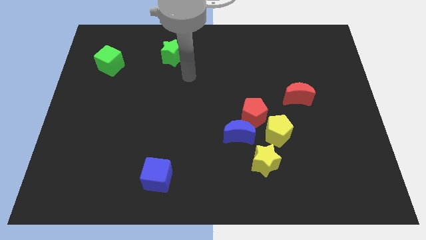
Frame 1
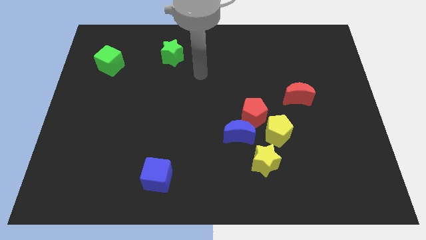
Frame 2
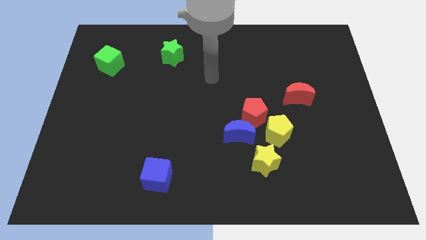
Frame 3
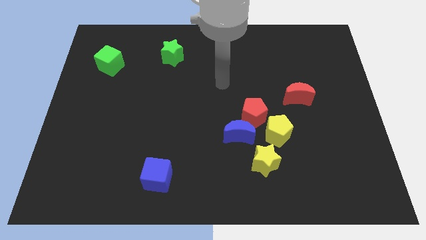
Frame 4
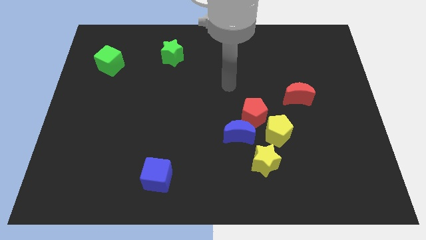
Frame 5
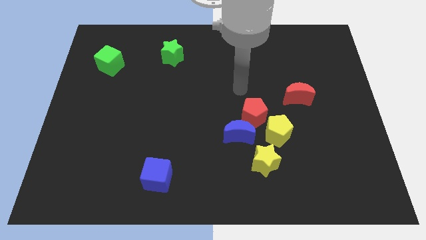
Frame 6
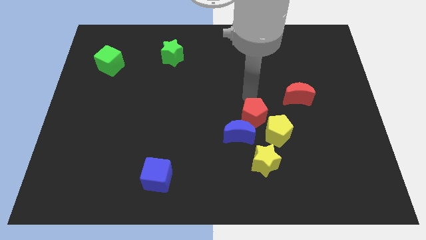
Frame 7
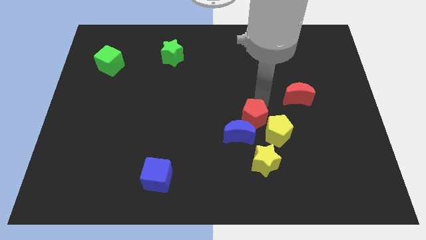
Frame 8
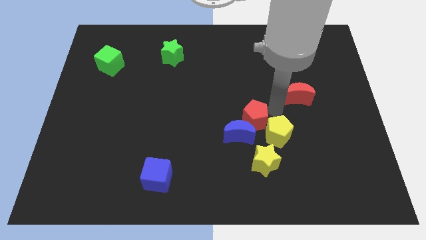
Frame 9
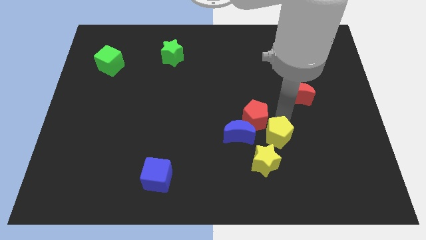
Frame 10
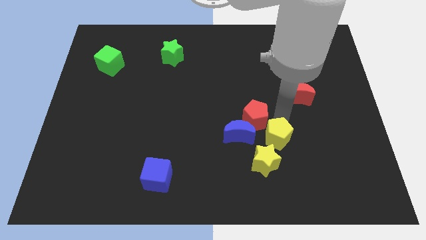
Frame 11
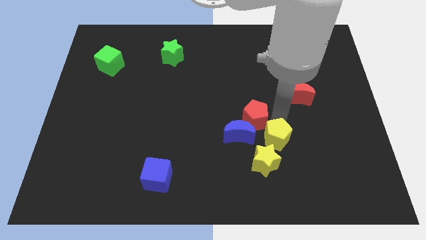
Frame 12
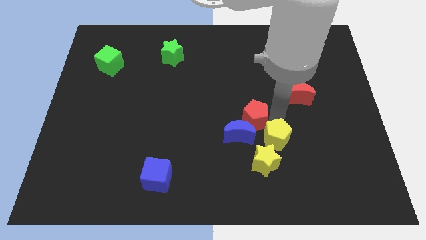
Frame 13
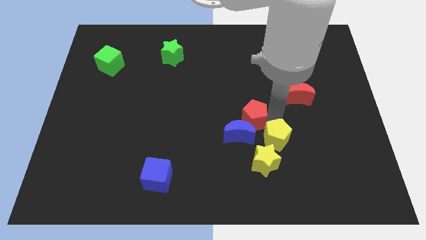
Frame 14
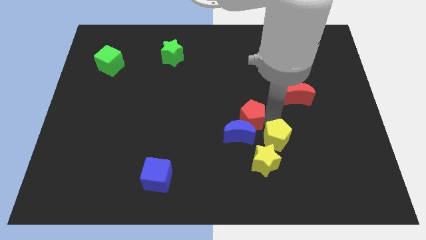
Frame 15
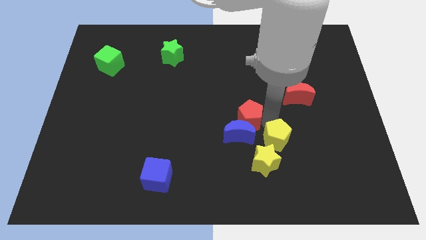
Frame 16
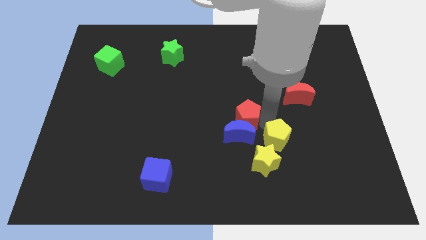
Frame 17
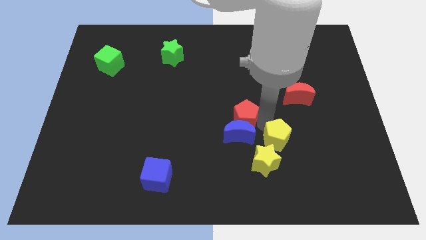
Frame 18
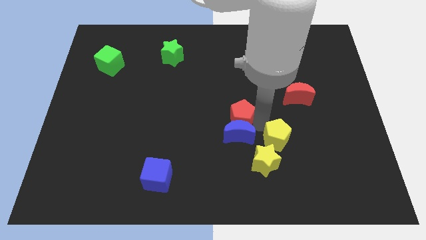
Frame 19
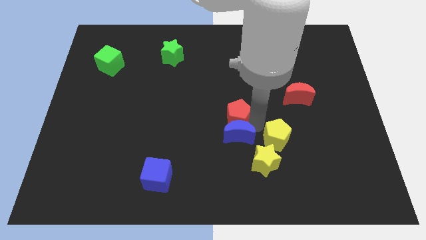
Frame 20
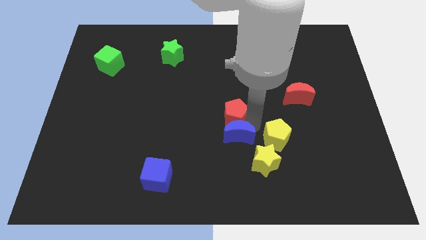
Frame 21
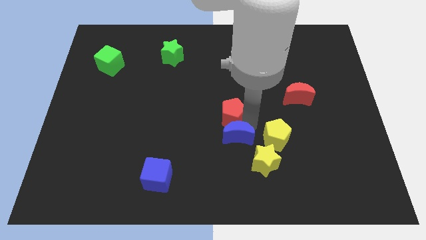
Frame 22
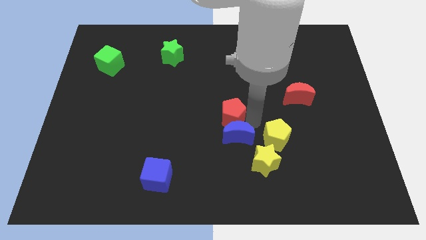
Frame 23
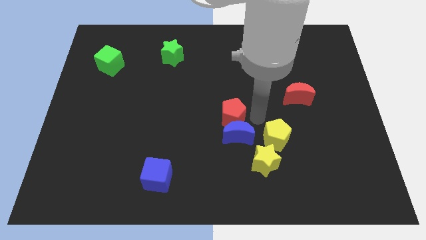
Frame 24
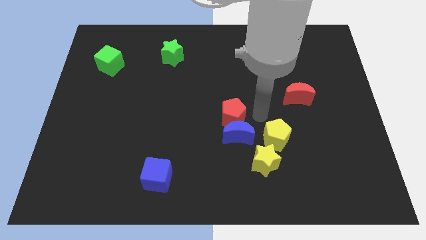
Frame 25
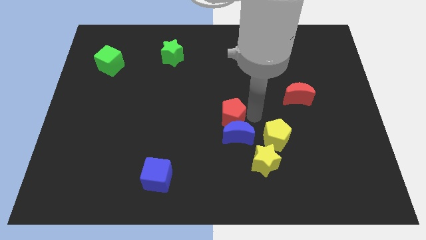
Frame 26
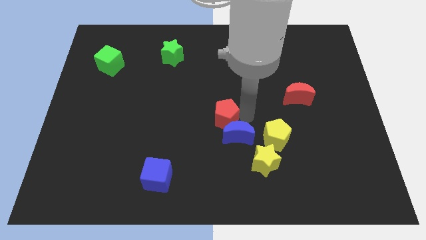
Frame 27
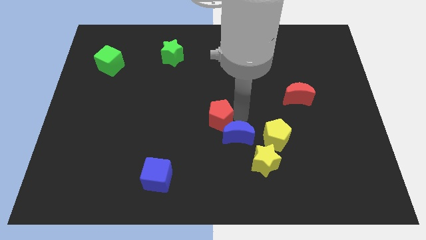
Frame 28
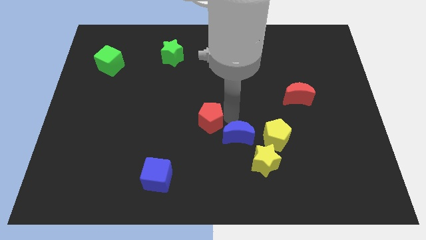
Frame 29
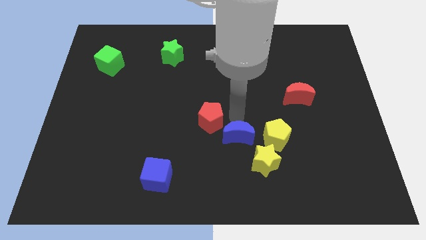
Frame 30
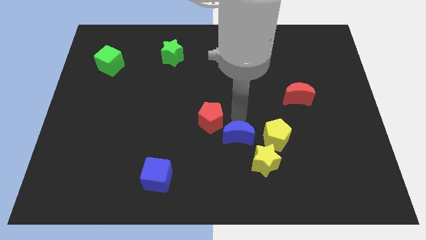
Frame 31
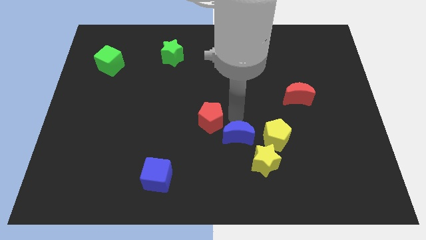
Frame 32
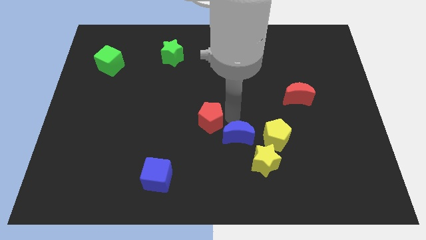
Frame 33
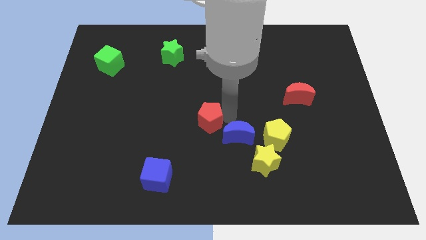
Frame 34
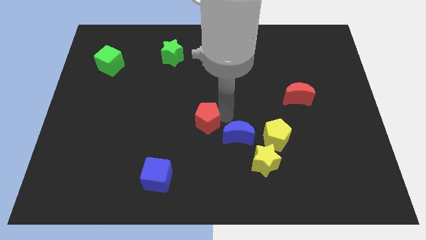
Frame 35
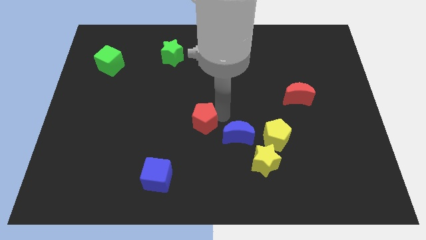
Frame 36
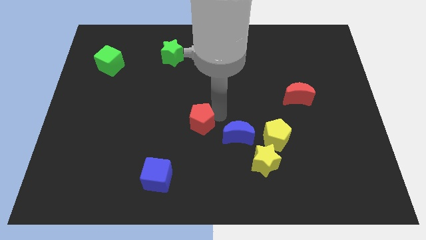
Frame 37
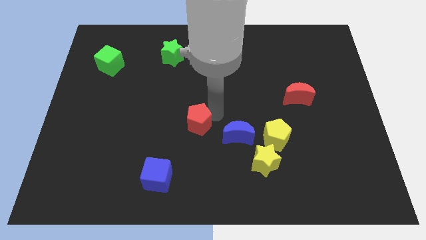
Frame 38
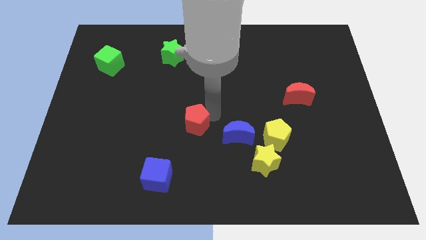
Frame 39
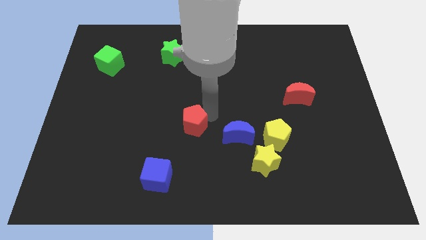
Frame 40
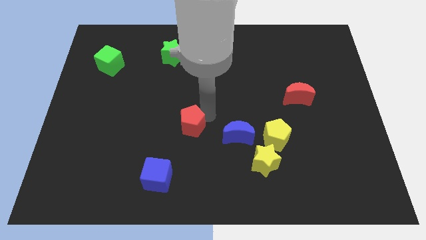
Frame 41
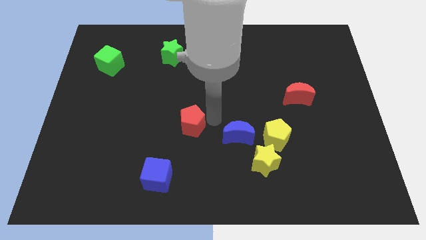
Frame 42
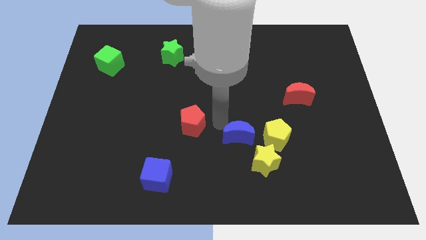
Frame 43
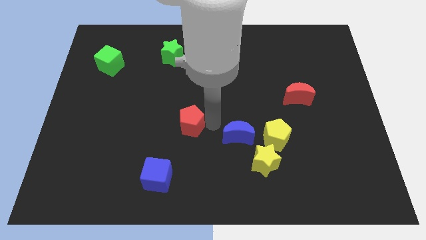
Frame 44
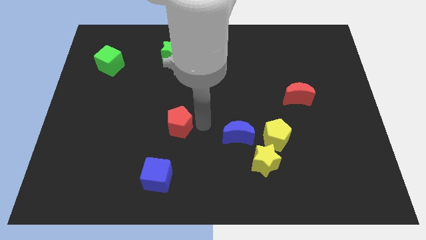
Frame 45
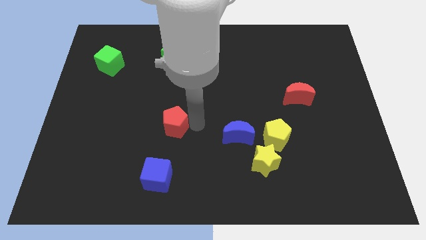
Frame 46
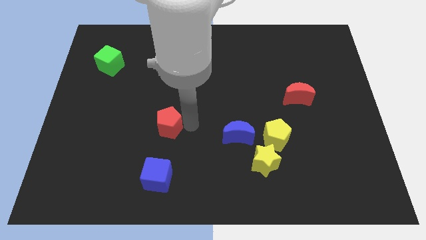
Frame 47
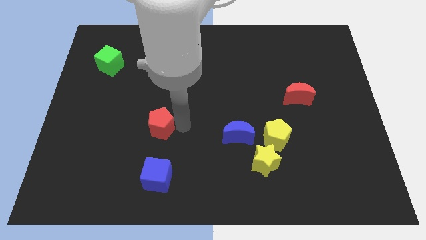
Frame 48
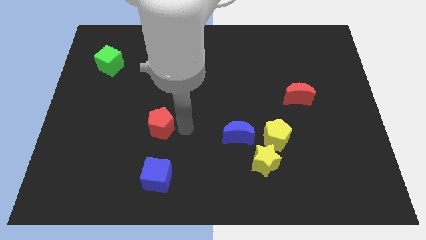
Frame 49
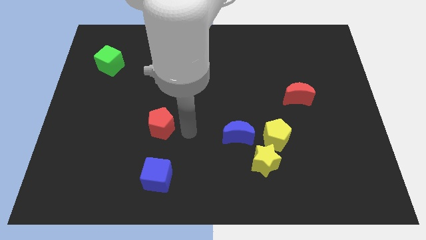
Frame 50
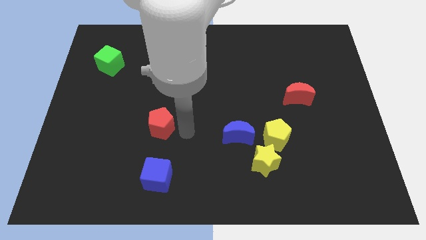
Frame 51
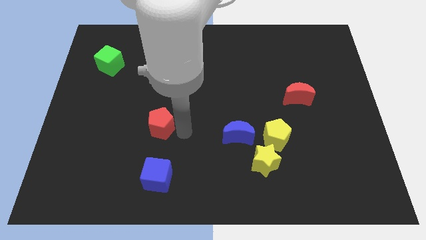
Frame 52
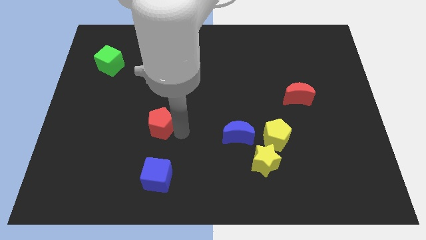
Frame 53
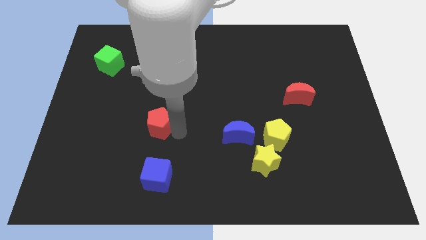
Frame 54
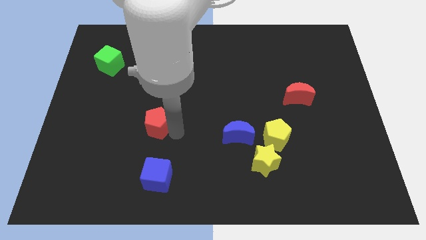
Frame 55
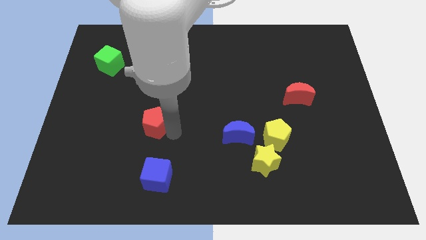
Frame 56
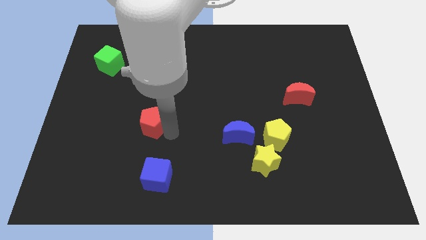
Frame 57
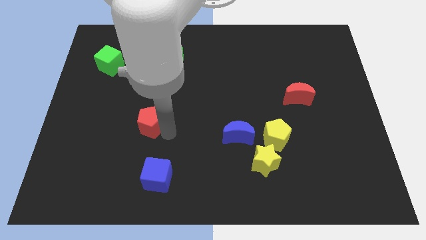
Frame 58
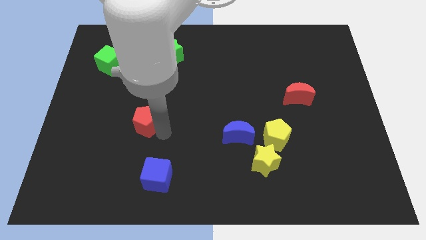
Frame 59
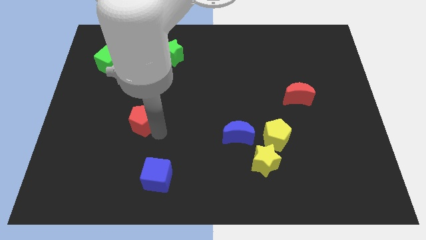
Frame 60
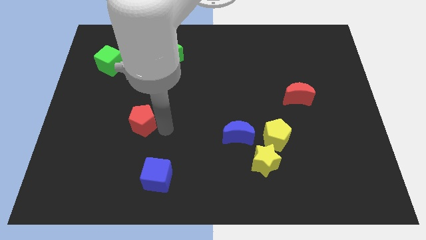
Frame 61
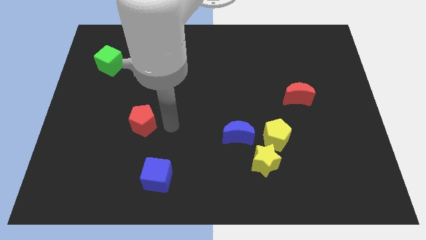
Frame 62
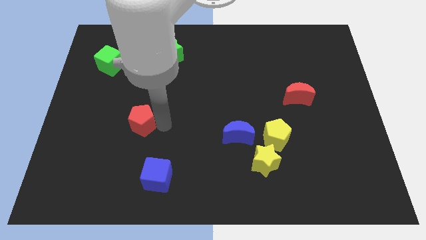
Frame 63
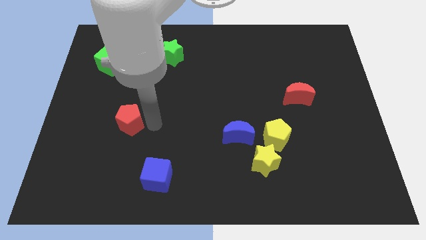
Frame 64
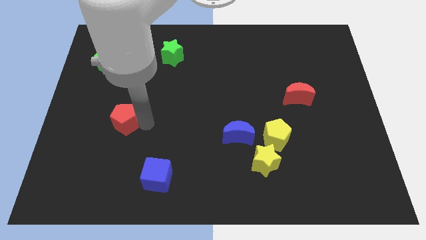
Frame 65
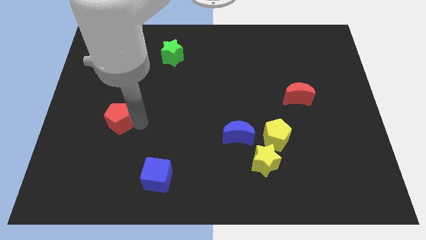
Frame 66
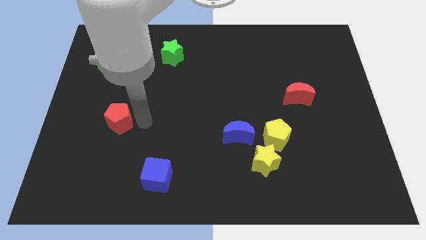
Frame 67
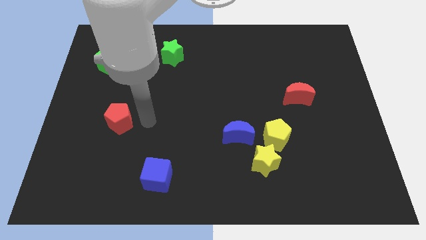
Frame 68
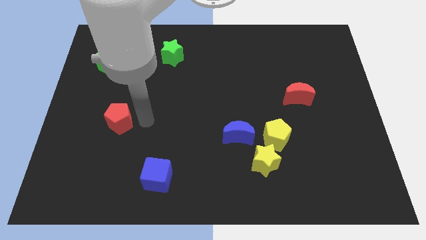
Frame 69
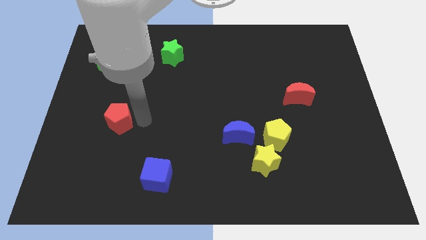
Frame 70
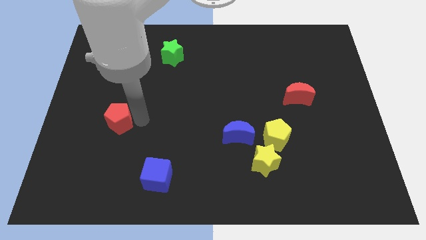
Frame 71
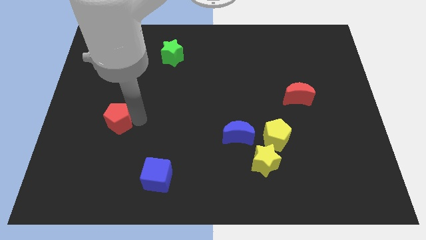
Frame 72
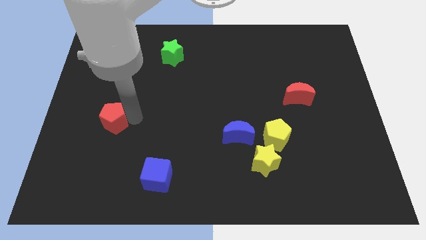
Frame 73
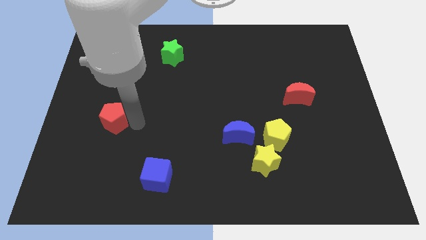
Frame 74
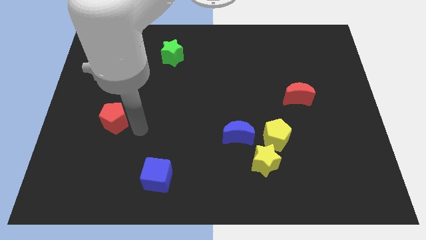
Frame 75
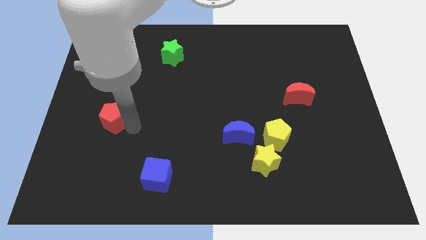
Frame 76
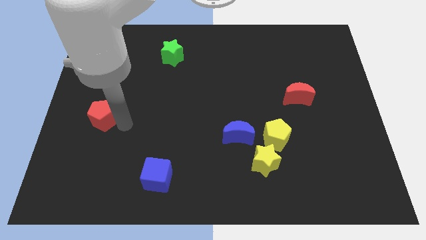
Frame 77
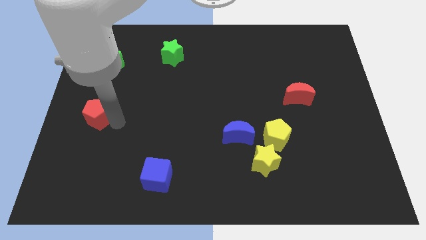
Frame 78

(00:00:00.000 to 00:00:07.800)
move the red pentagon to the left side of the board
